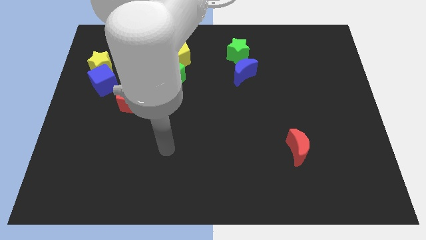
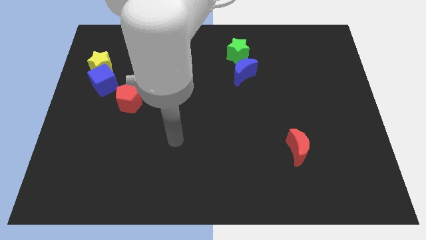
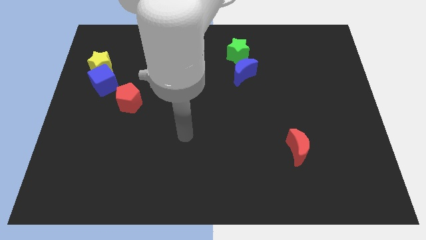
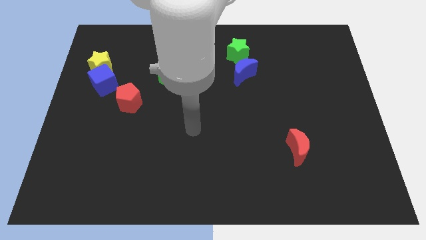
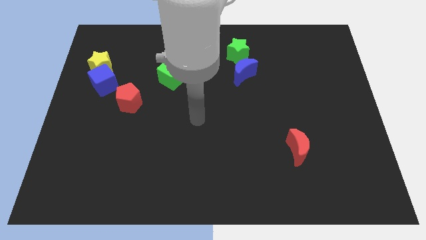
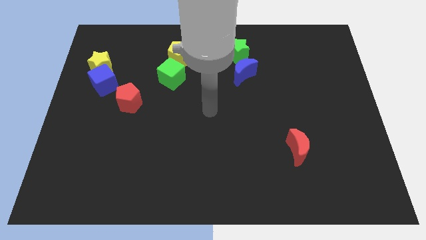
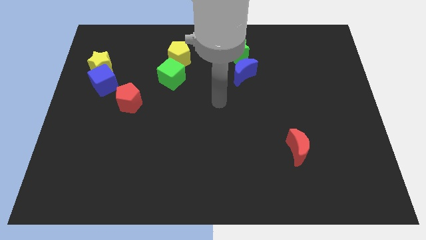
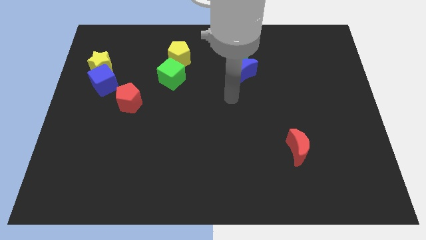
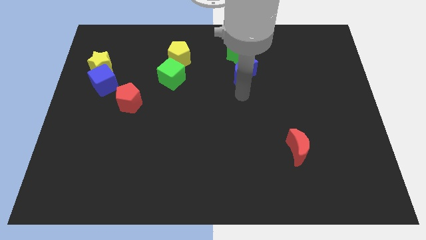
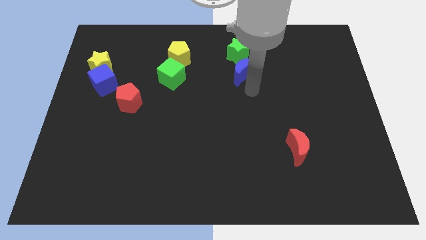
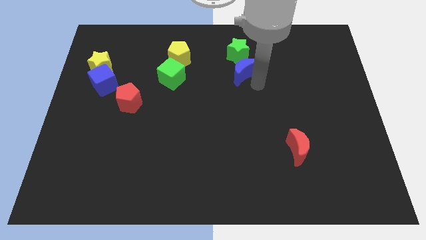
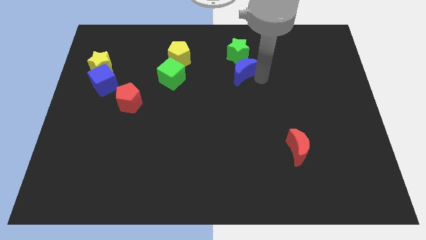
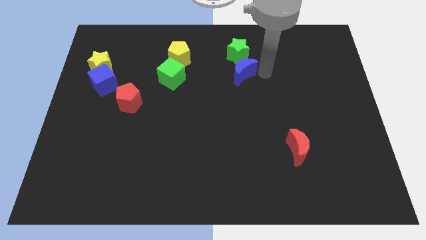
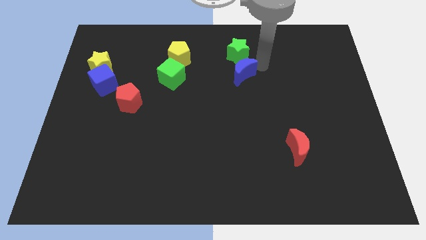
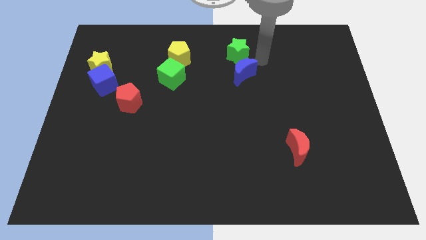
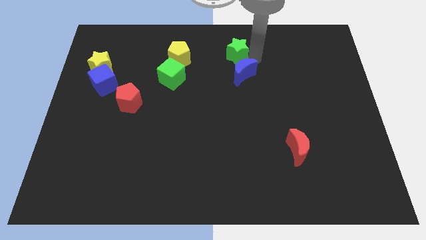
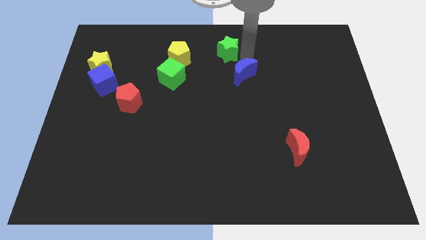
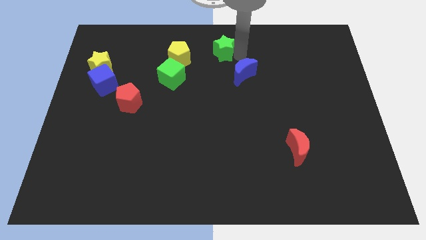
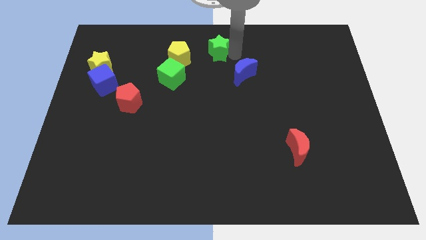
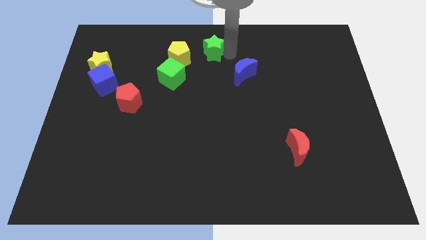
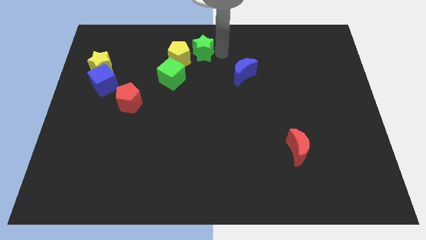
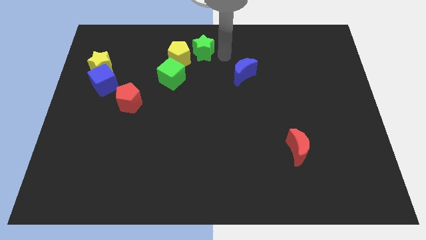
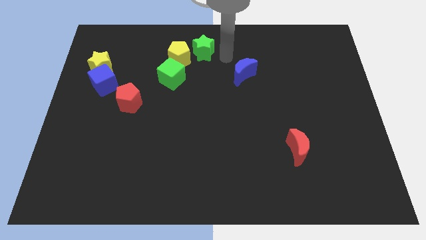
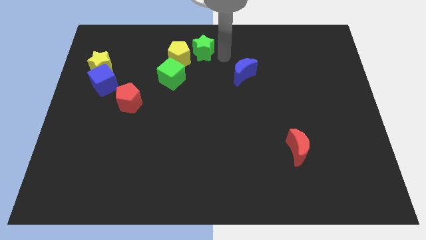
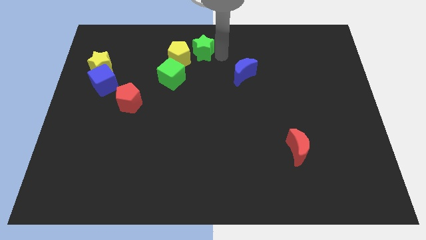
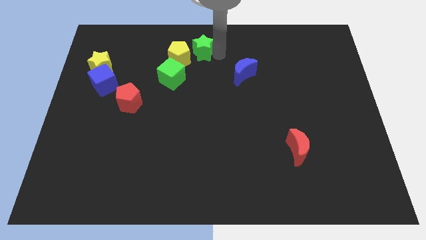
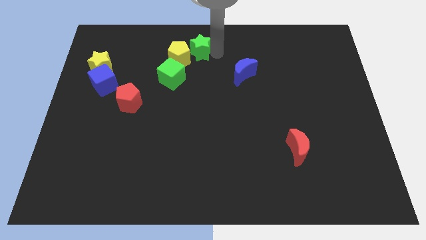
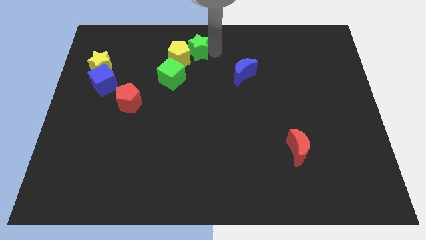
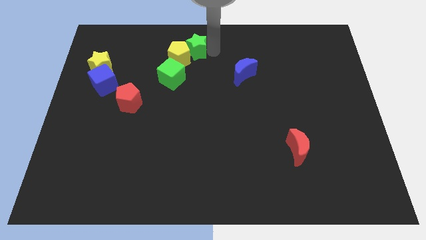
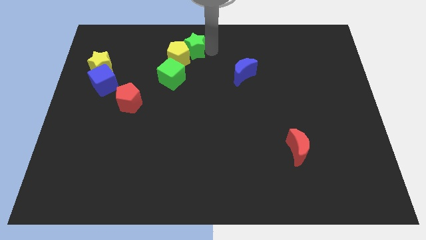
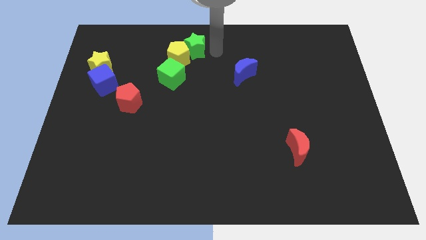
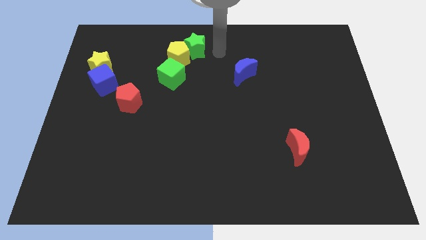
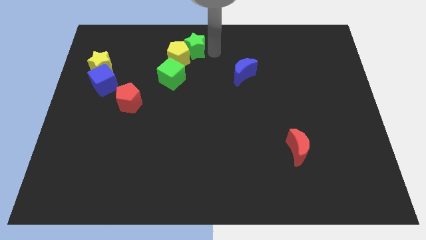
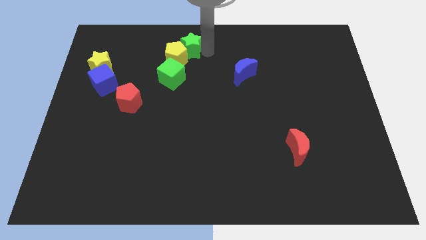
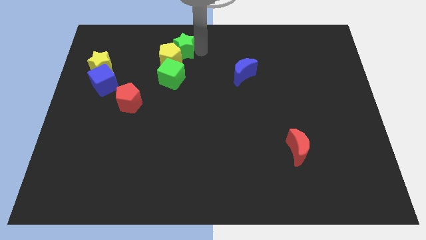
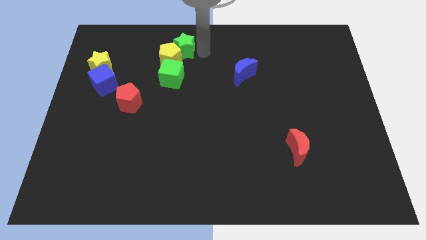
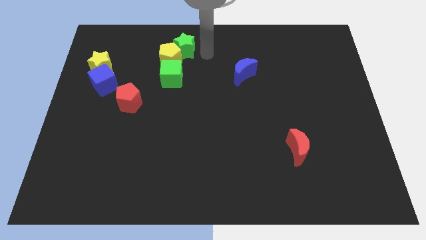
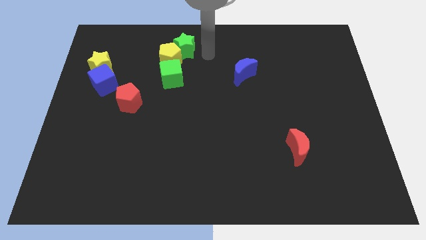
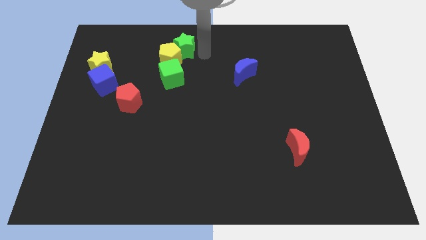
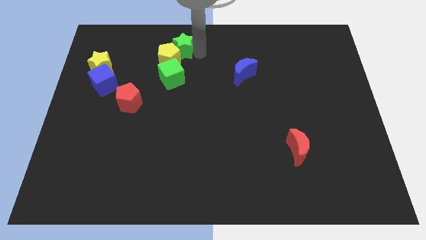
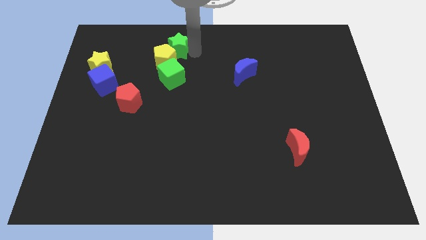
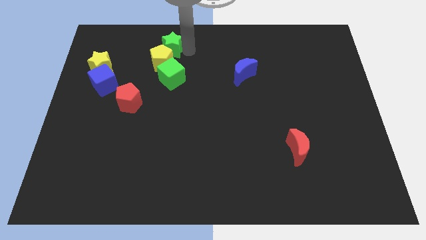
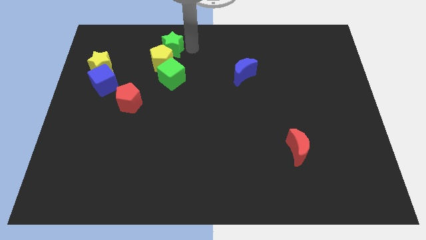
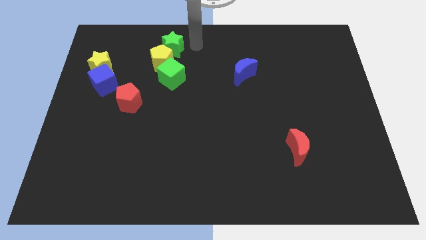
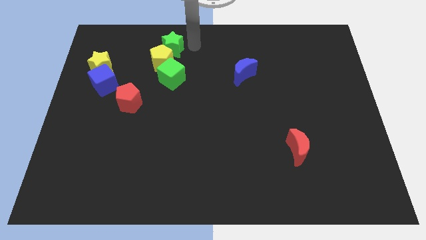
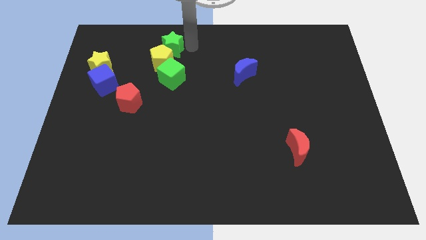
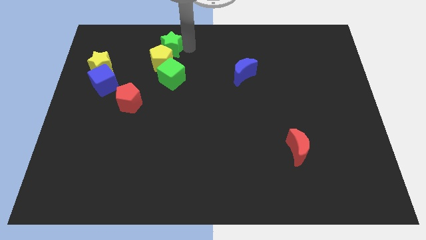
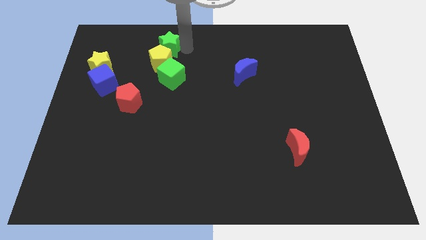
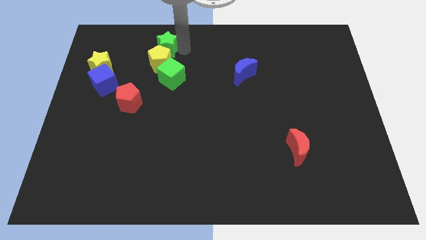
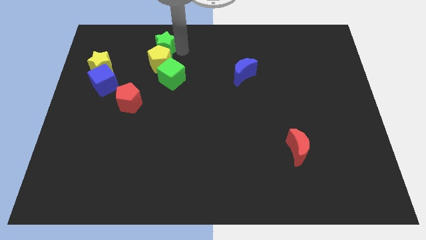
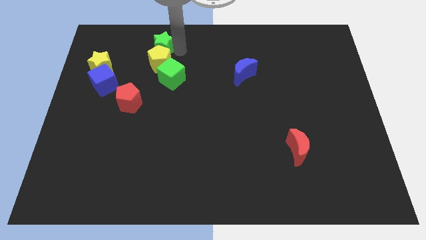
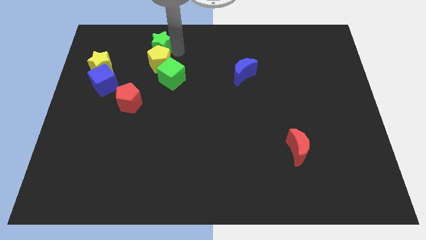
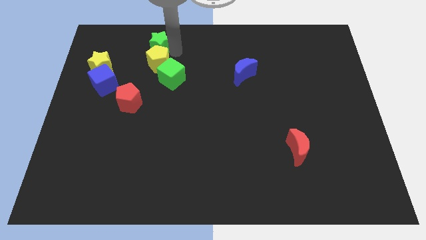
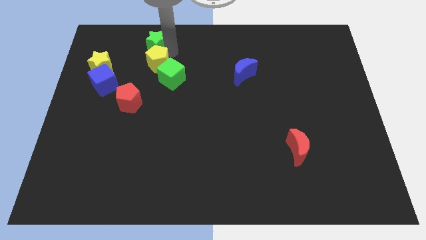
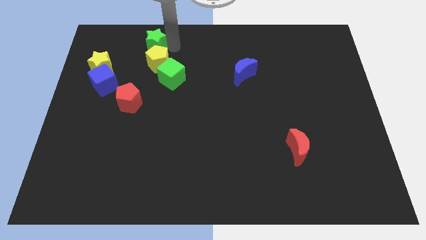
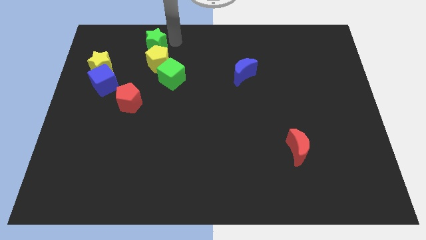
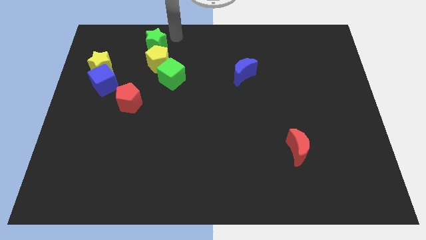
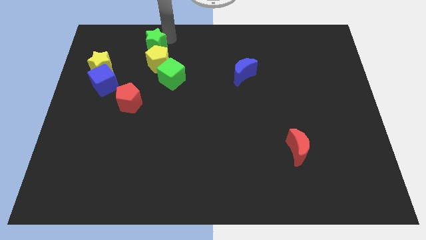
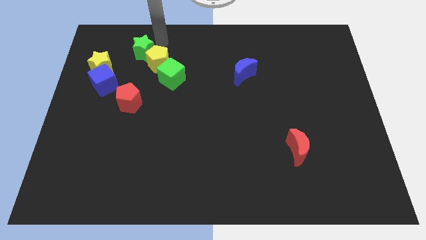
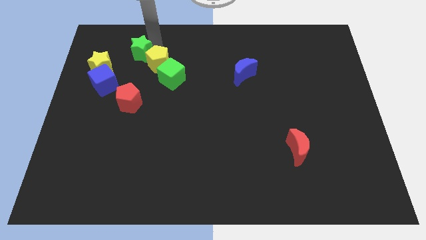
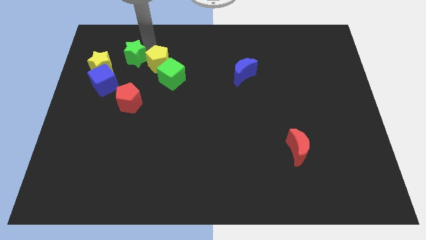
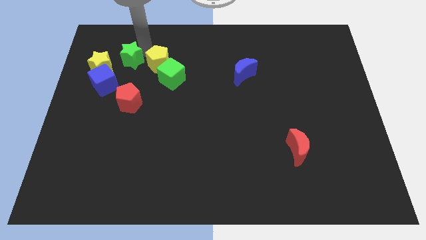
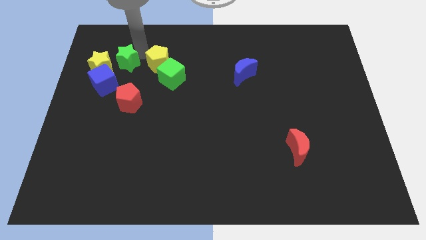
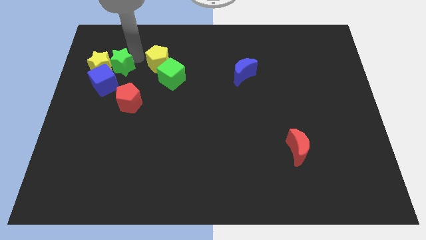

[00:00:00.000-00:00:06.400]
push the green star close to the yellow star
